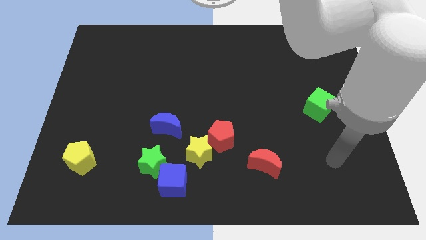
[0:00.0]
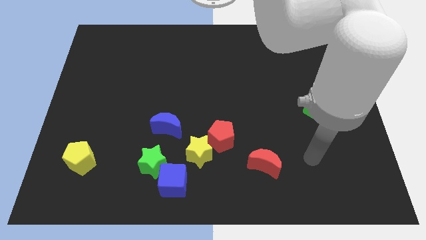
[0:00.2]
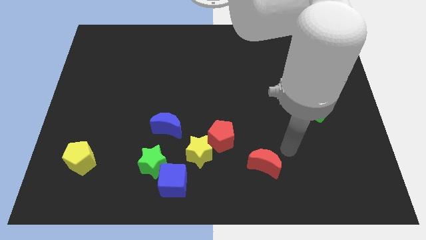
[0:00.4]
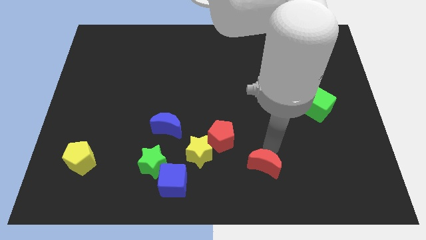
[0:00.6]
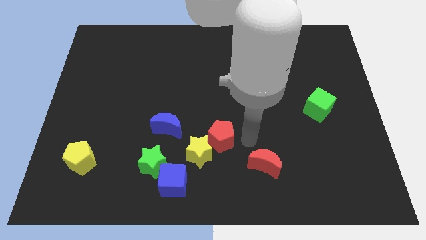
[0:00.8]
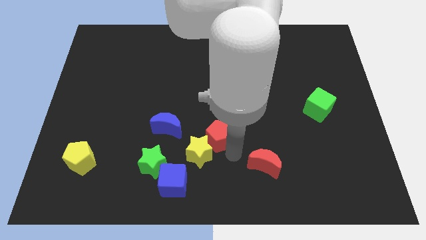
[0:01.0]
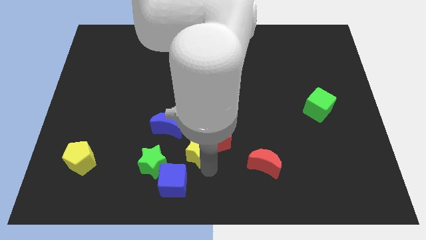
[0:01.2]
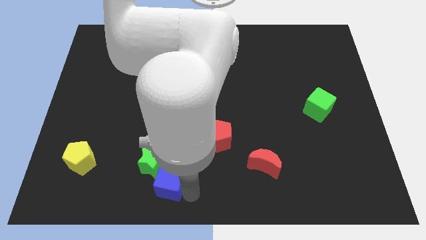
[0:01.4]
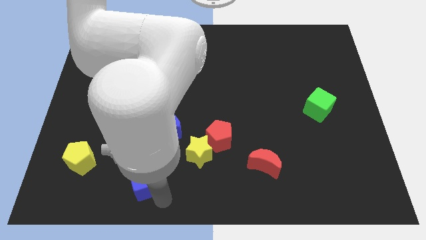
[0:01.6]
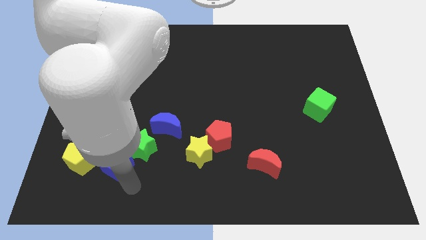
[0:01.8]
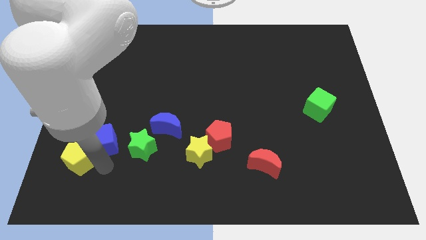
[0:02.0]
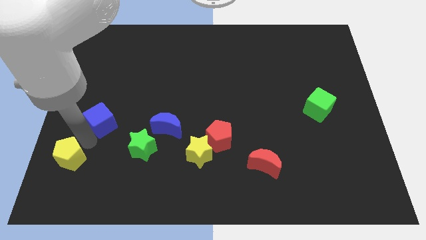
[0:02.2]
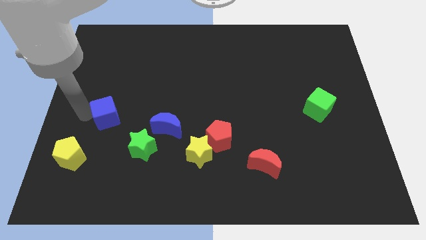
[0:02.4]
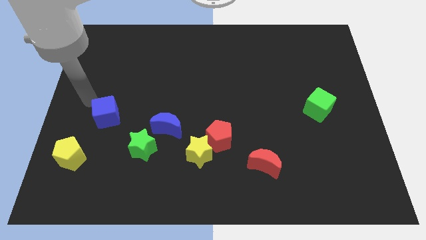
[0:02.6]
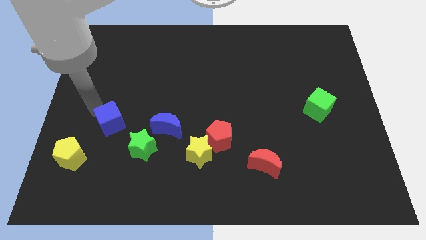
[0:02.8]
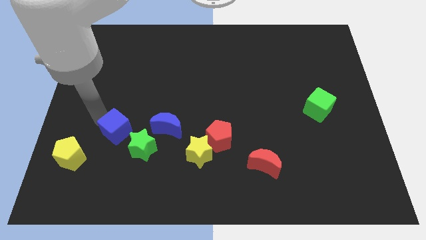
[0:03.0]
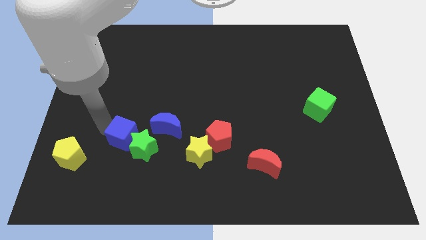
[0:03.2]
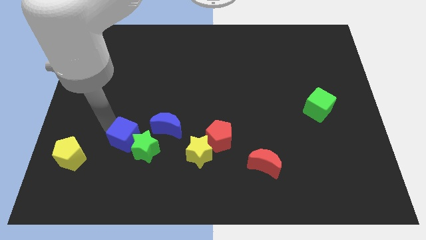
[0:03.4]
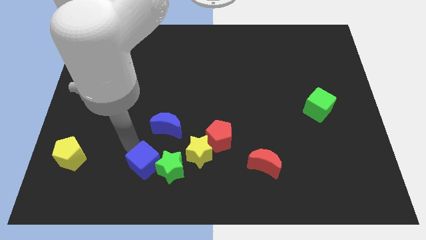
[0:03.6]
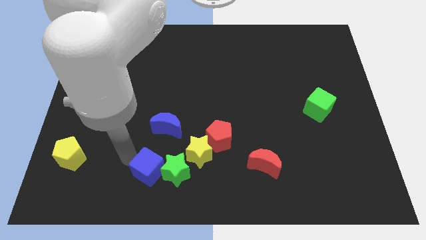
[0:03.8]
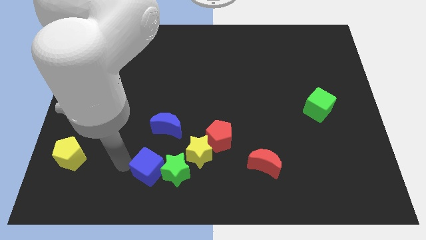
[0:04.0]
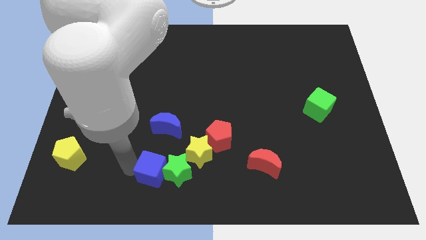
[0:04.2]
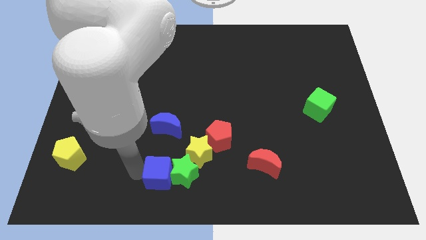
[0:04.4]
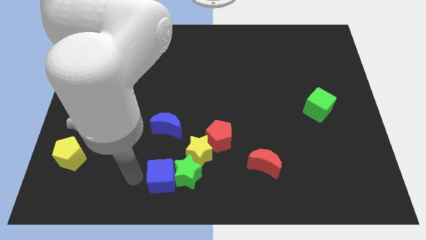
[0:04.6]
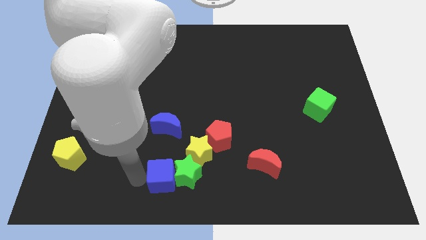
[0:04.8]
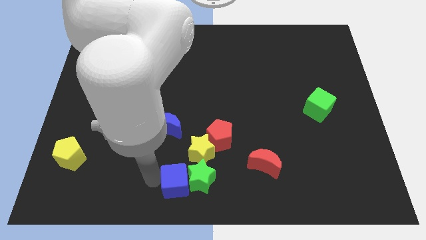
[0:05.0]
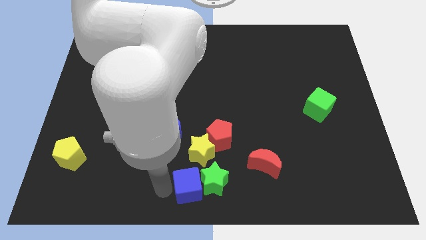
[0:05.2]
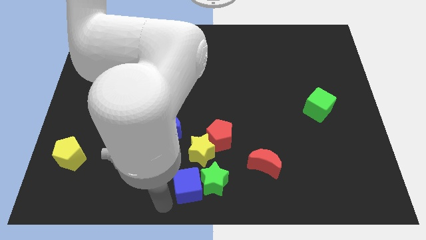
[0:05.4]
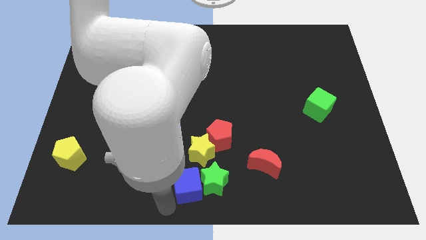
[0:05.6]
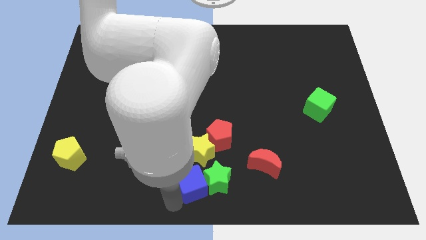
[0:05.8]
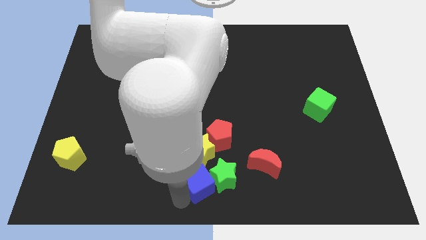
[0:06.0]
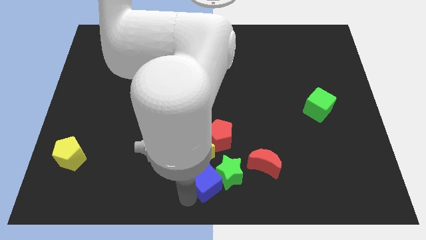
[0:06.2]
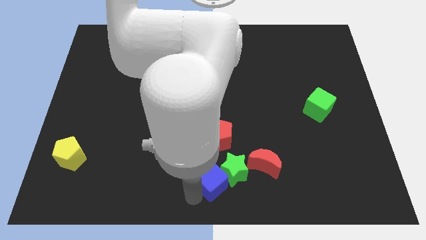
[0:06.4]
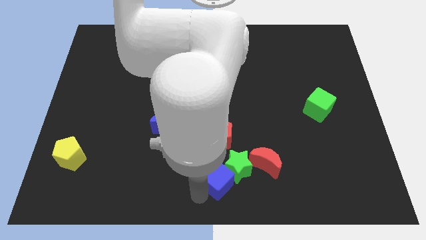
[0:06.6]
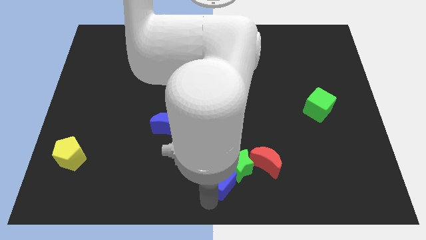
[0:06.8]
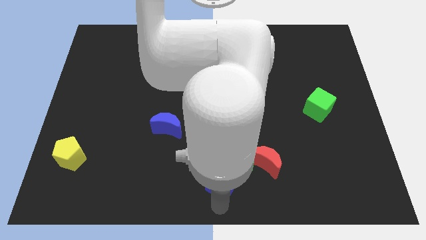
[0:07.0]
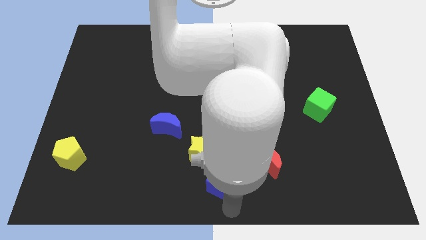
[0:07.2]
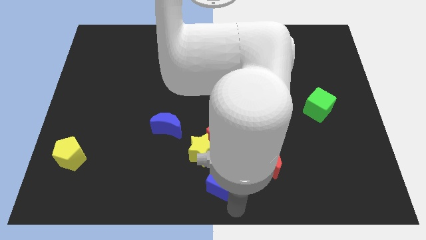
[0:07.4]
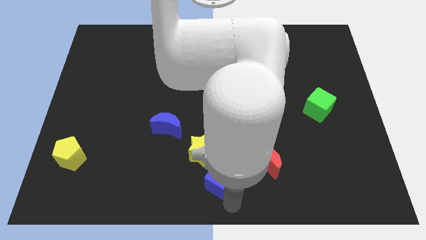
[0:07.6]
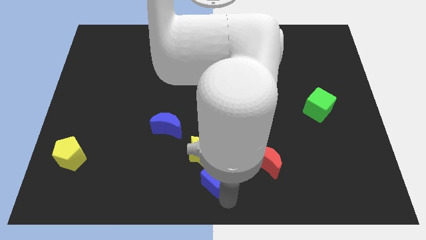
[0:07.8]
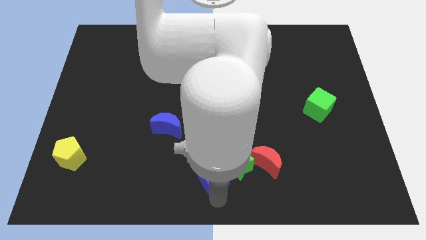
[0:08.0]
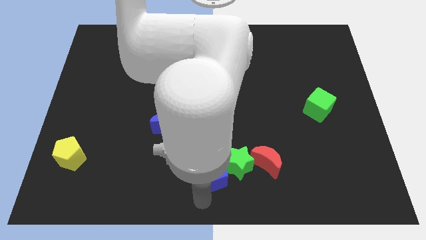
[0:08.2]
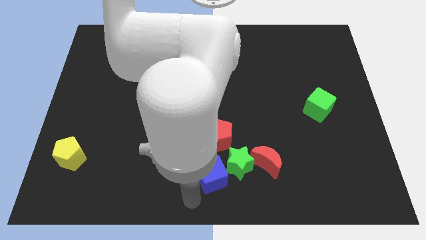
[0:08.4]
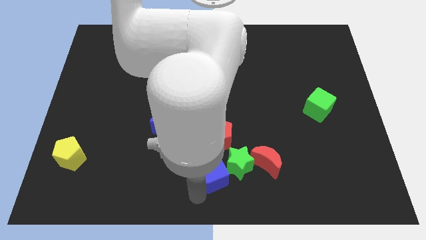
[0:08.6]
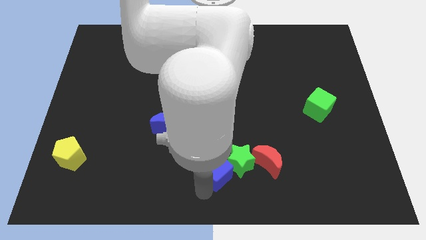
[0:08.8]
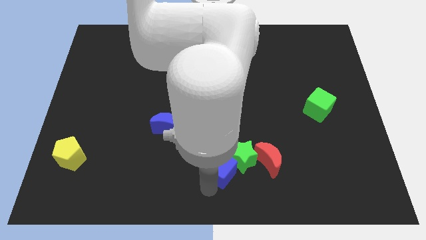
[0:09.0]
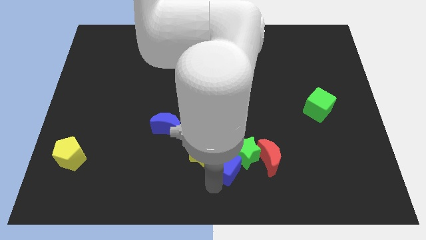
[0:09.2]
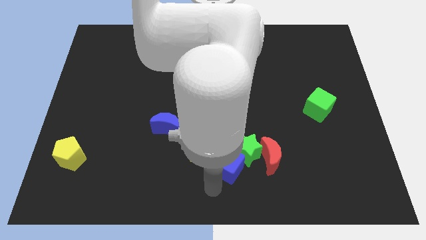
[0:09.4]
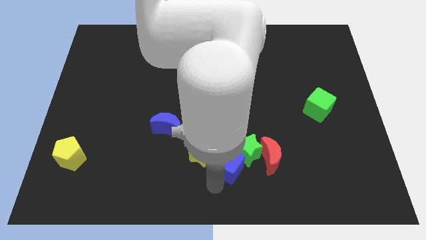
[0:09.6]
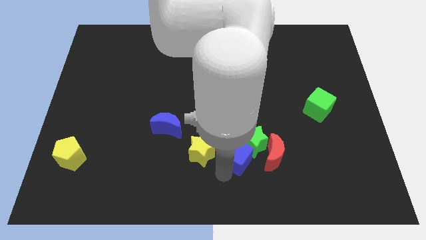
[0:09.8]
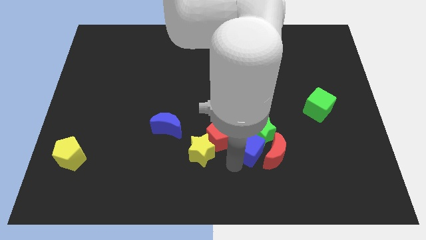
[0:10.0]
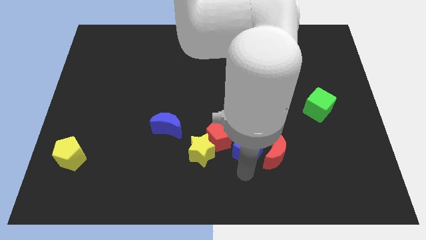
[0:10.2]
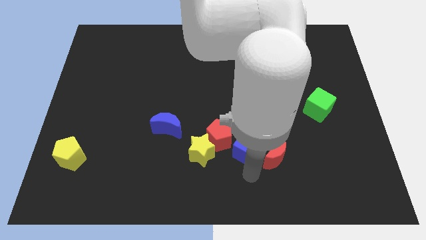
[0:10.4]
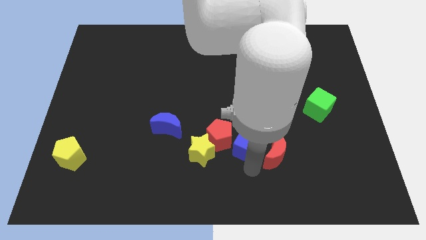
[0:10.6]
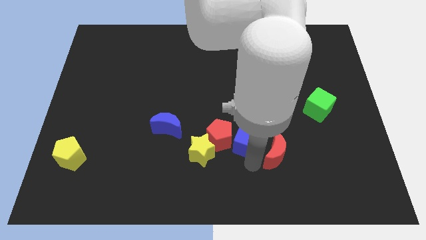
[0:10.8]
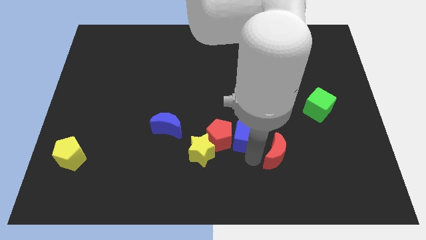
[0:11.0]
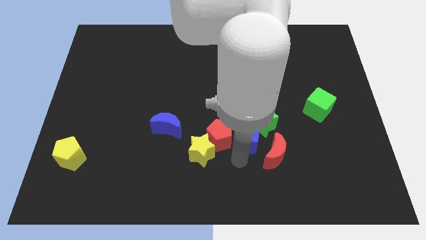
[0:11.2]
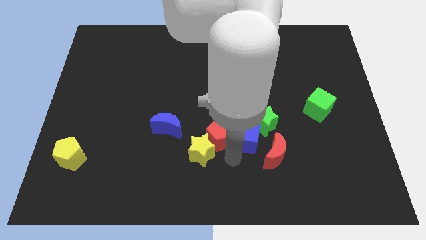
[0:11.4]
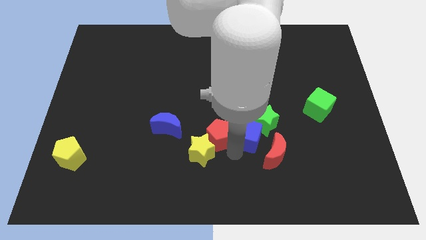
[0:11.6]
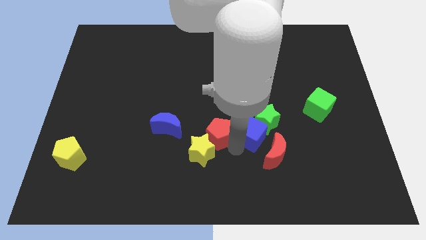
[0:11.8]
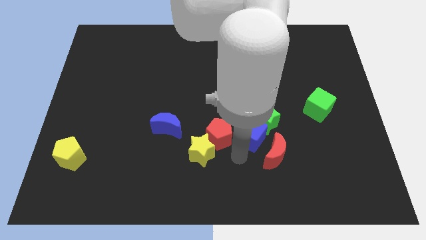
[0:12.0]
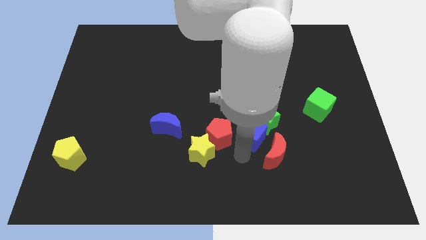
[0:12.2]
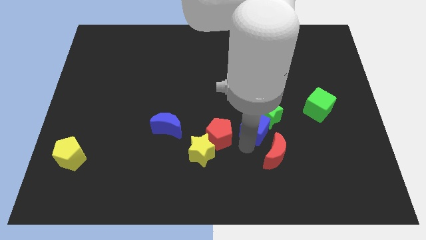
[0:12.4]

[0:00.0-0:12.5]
slide the blue cube diagonally up and right

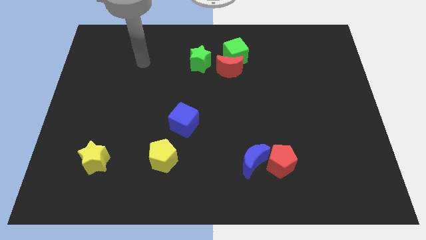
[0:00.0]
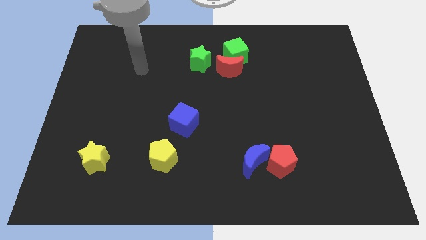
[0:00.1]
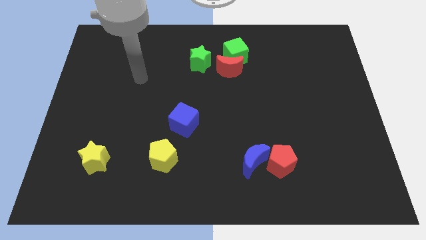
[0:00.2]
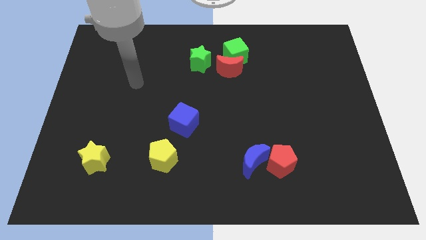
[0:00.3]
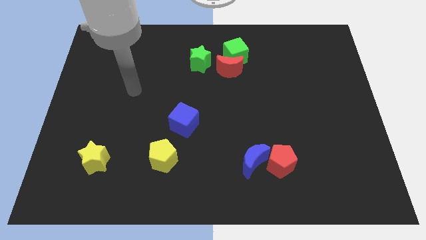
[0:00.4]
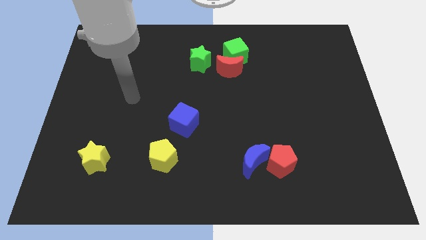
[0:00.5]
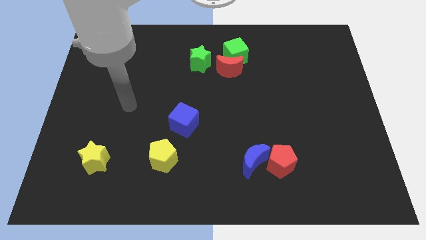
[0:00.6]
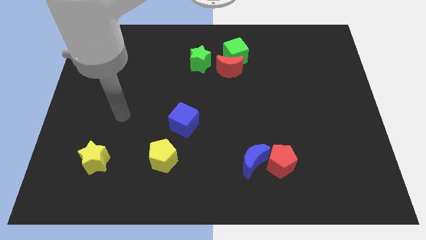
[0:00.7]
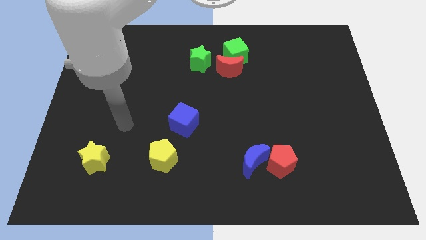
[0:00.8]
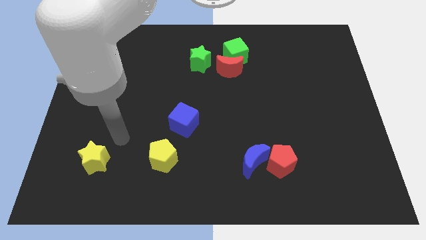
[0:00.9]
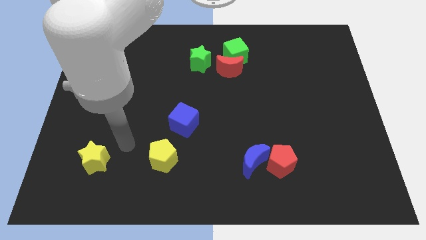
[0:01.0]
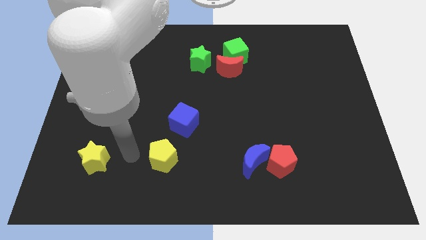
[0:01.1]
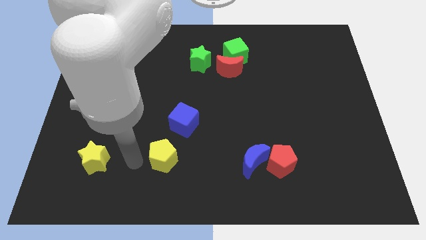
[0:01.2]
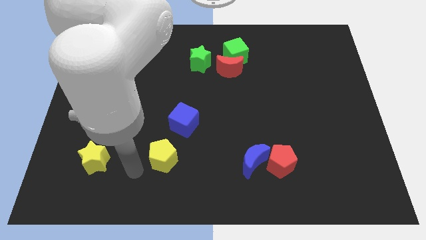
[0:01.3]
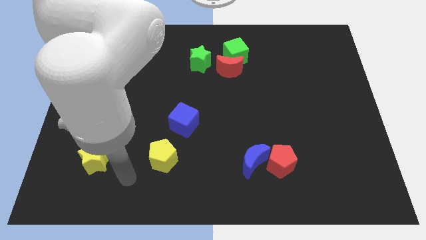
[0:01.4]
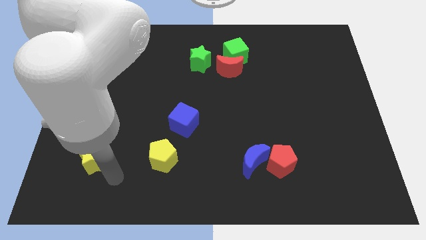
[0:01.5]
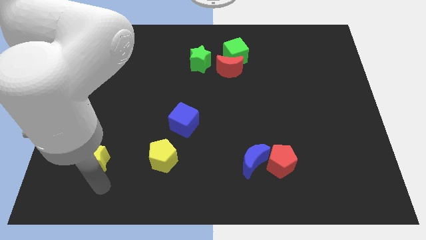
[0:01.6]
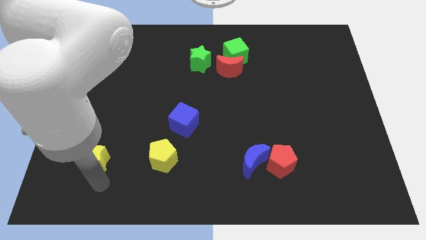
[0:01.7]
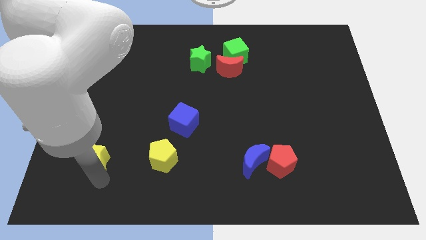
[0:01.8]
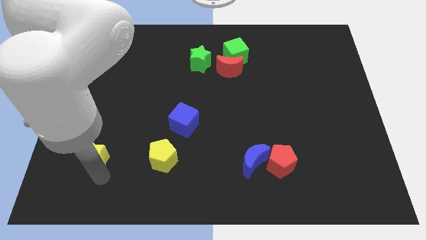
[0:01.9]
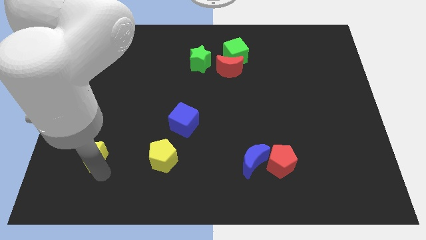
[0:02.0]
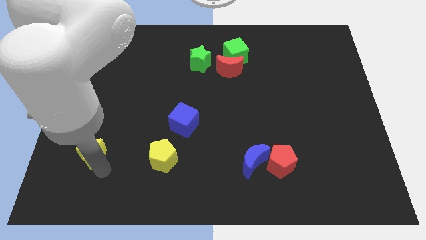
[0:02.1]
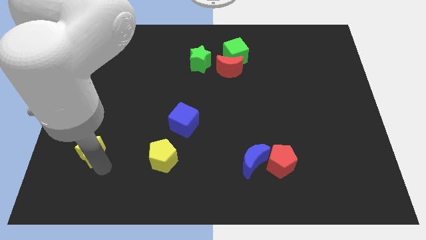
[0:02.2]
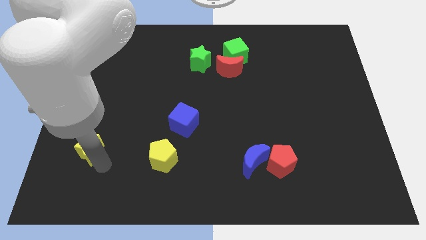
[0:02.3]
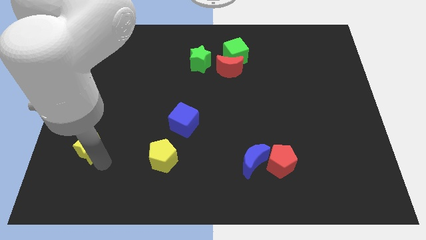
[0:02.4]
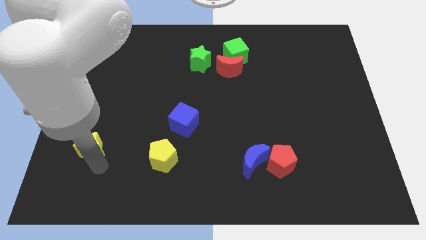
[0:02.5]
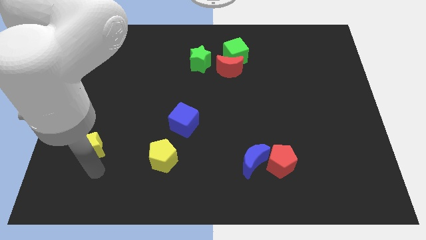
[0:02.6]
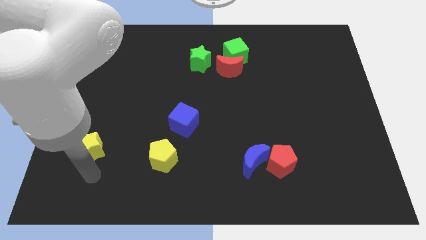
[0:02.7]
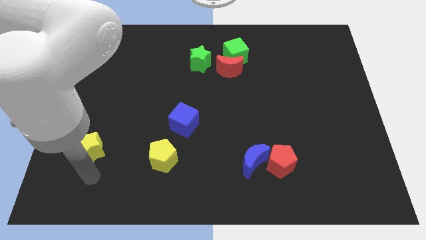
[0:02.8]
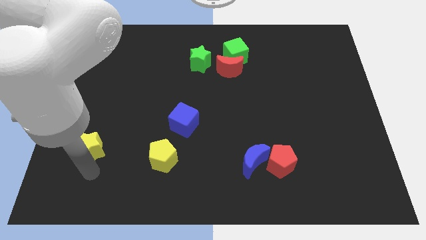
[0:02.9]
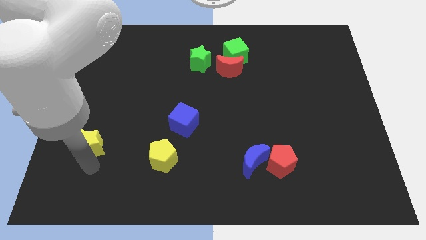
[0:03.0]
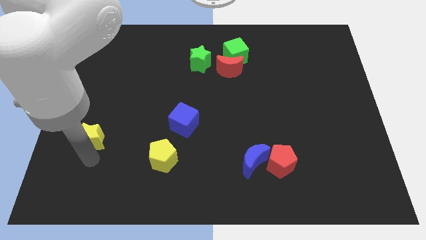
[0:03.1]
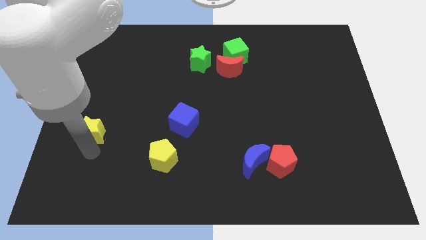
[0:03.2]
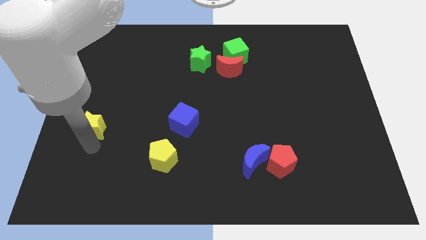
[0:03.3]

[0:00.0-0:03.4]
slightly push the yellow star upwards
